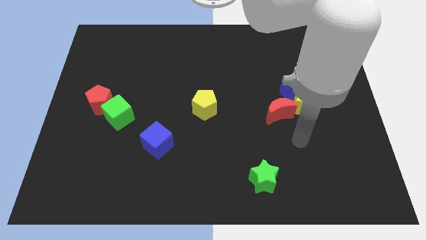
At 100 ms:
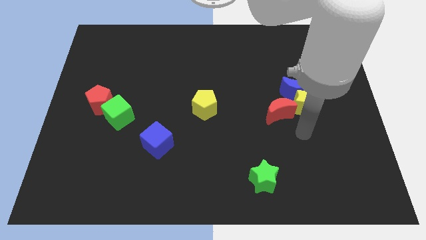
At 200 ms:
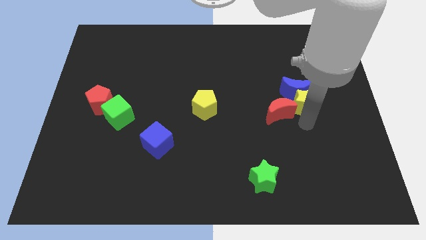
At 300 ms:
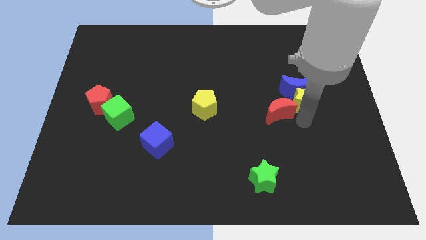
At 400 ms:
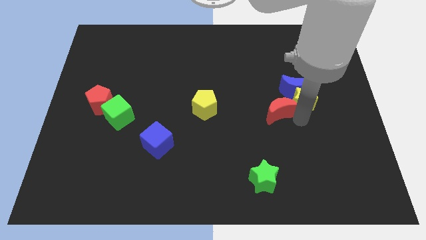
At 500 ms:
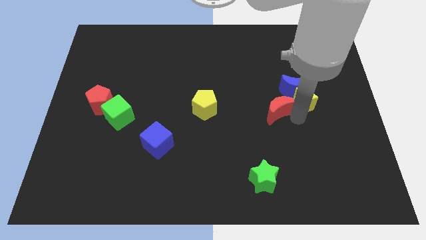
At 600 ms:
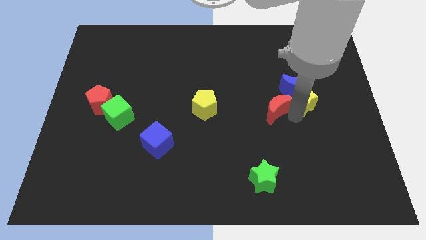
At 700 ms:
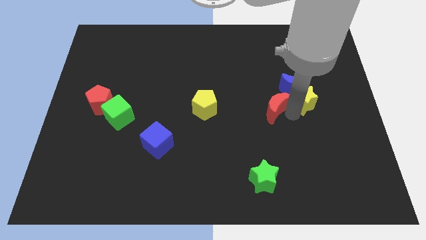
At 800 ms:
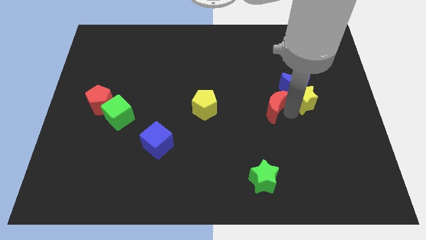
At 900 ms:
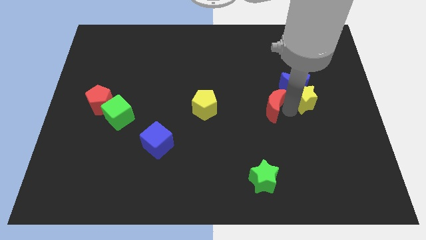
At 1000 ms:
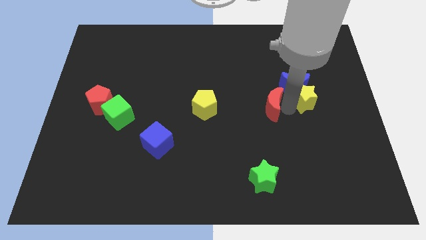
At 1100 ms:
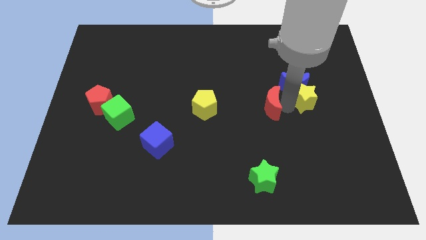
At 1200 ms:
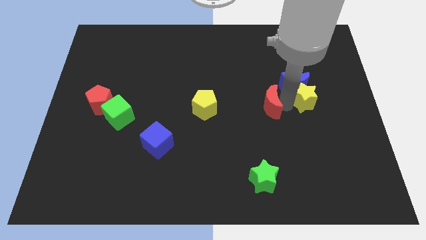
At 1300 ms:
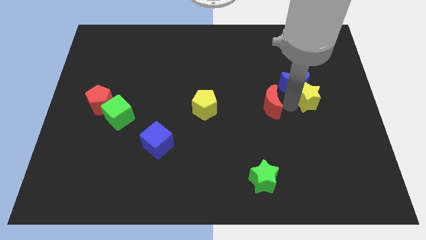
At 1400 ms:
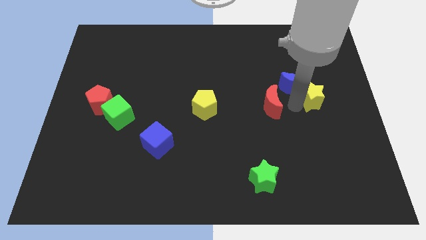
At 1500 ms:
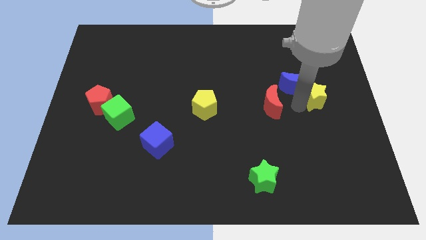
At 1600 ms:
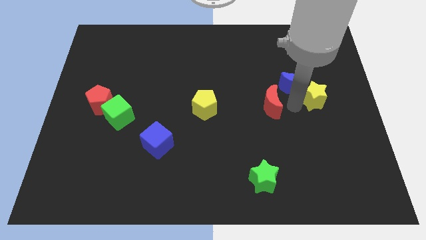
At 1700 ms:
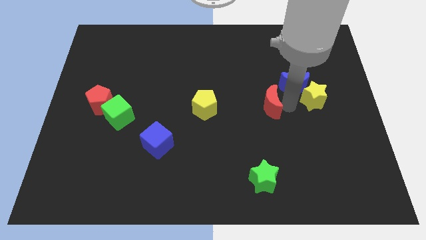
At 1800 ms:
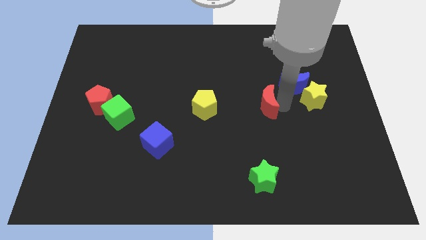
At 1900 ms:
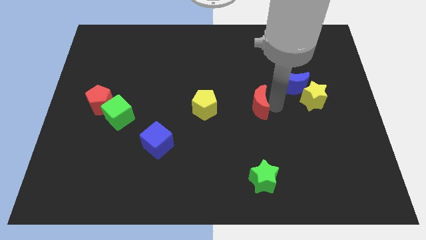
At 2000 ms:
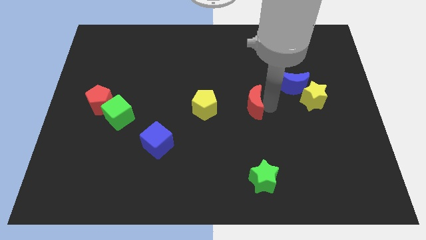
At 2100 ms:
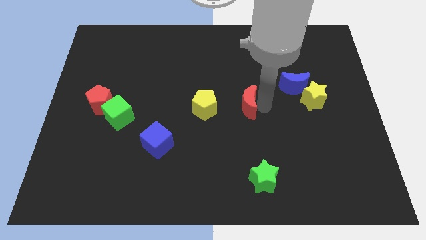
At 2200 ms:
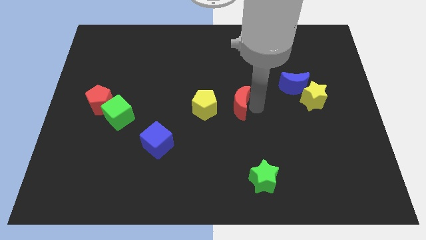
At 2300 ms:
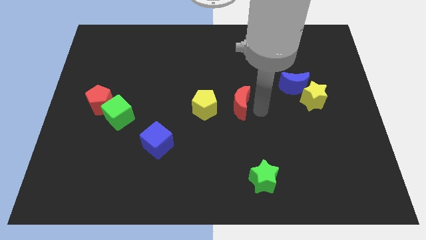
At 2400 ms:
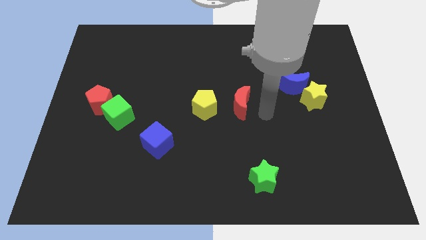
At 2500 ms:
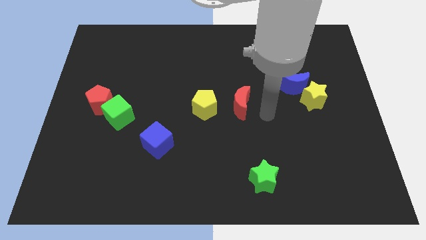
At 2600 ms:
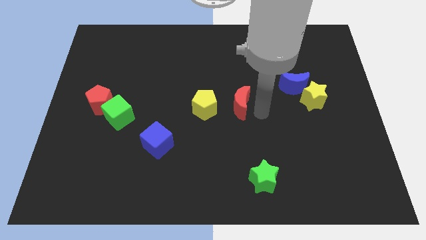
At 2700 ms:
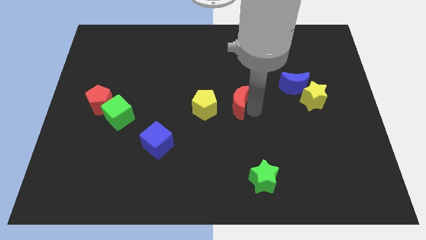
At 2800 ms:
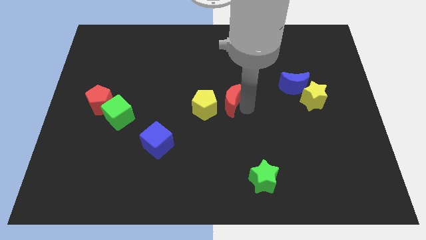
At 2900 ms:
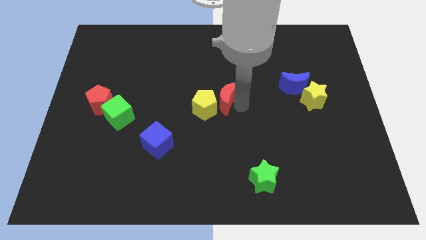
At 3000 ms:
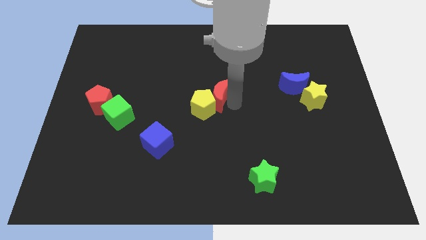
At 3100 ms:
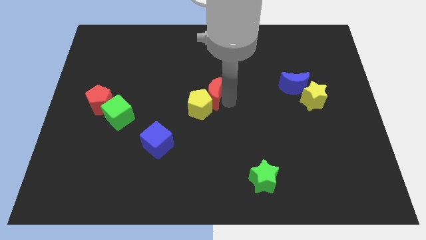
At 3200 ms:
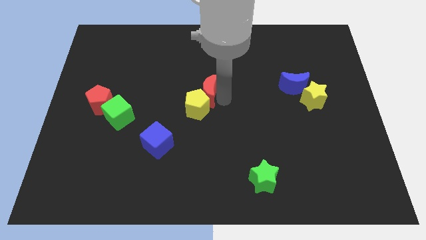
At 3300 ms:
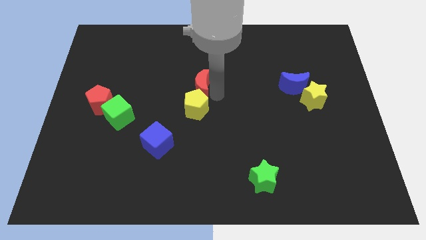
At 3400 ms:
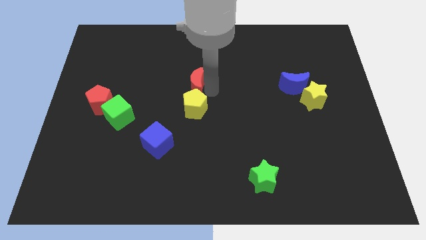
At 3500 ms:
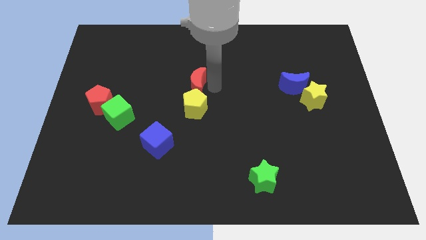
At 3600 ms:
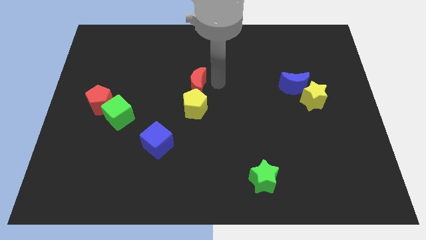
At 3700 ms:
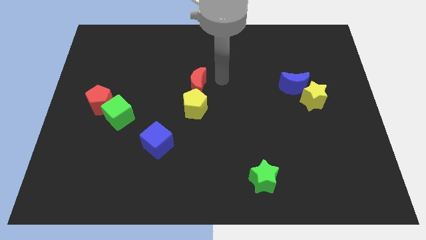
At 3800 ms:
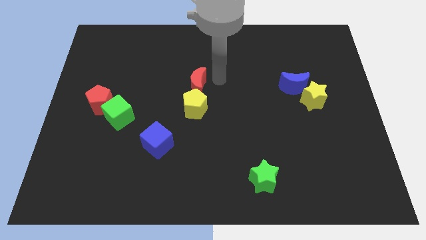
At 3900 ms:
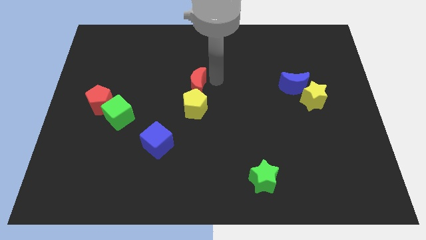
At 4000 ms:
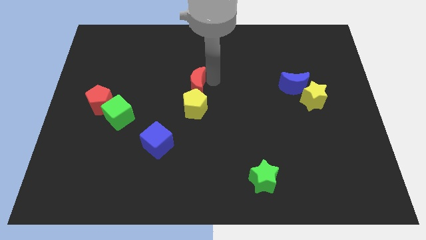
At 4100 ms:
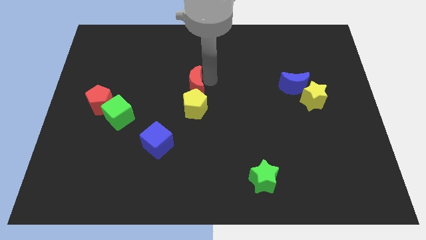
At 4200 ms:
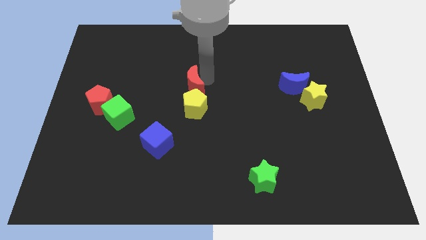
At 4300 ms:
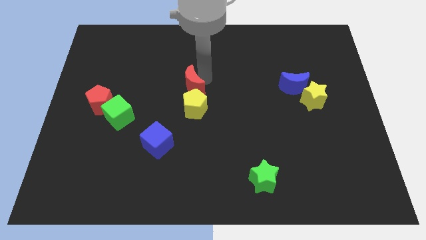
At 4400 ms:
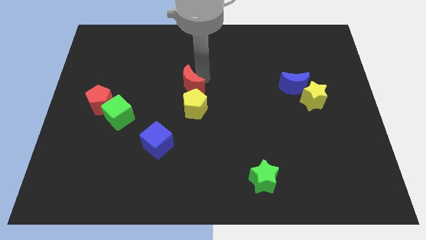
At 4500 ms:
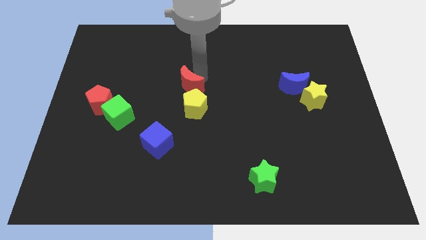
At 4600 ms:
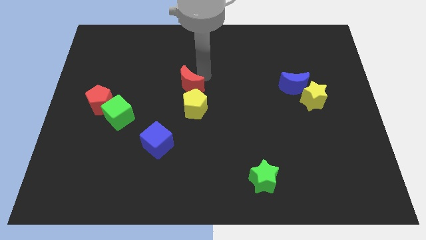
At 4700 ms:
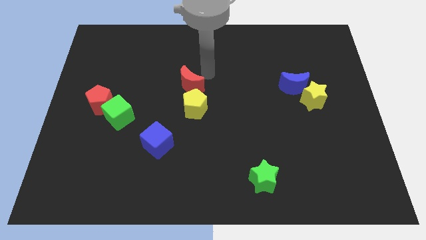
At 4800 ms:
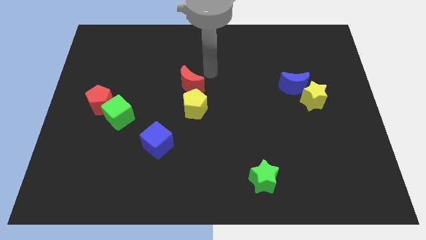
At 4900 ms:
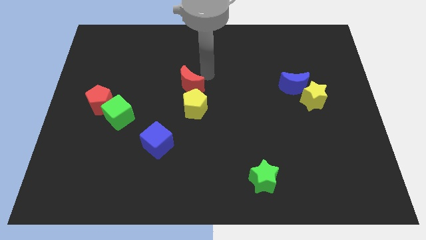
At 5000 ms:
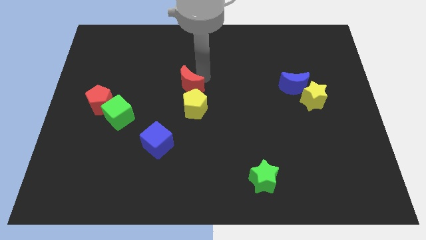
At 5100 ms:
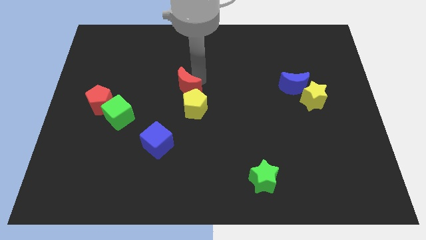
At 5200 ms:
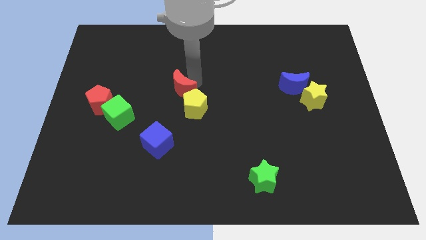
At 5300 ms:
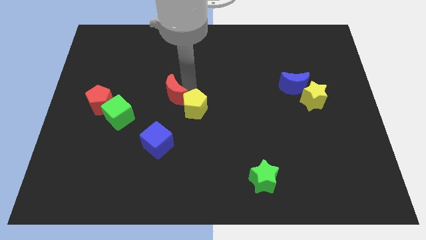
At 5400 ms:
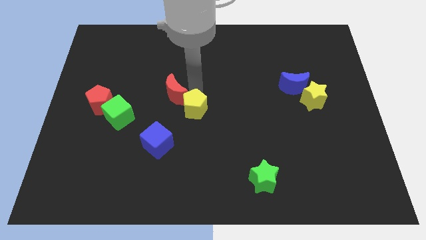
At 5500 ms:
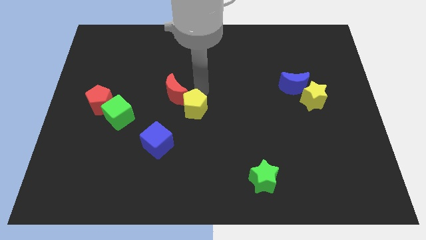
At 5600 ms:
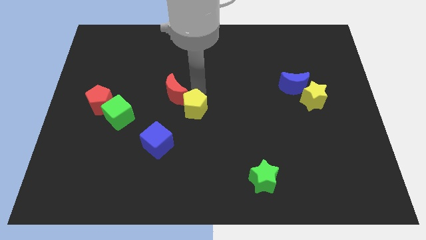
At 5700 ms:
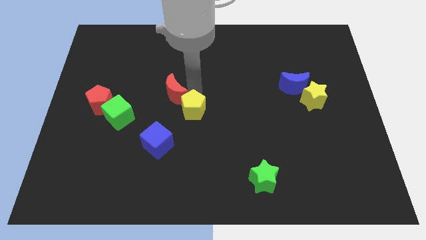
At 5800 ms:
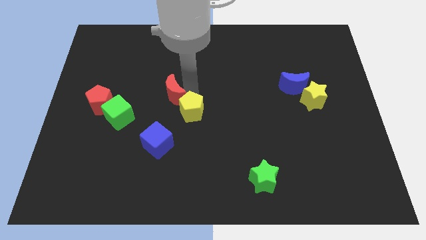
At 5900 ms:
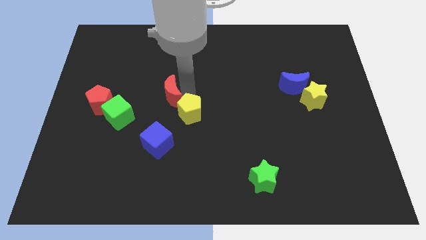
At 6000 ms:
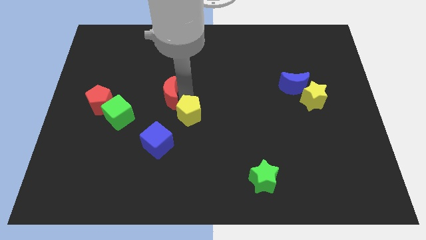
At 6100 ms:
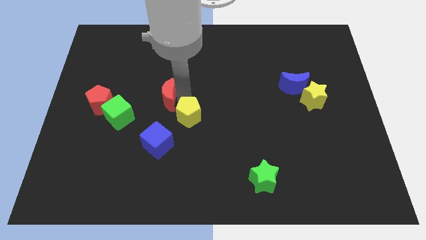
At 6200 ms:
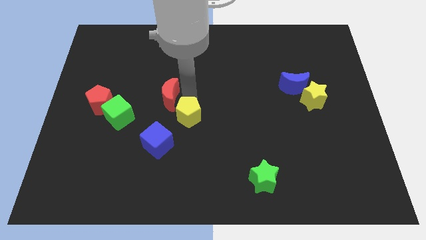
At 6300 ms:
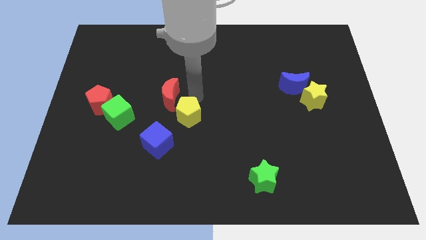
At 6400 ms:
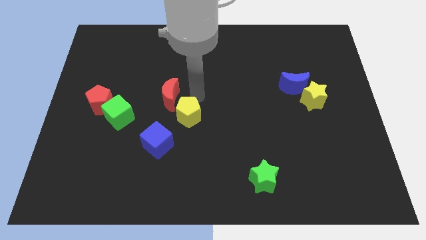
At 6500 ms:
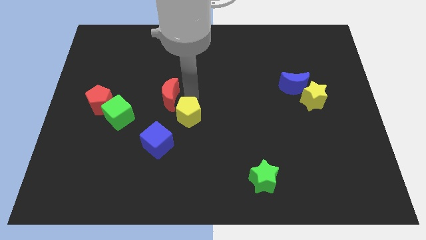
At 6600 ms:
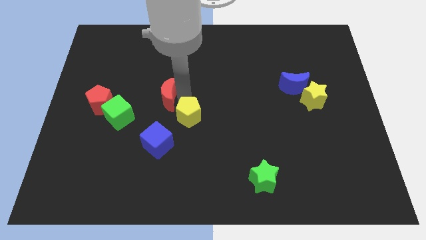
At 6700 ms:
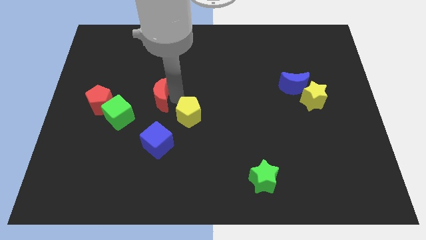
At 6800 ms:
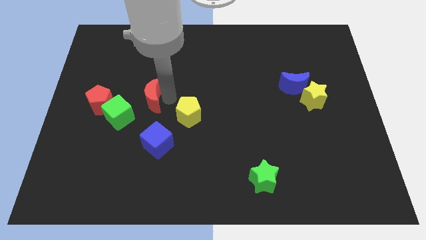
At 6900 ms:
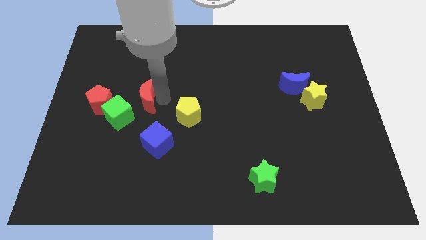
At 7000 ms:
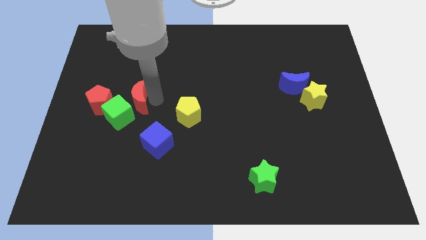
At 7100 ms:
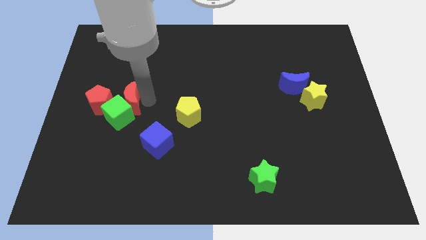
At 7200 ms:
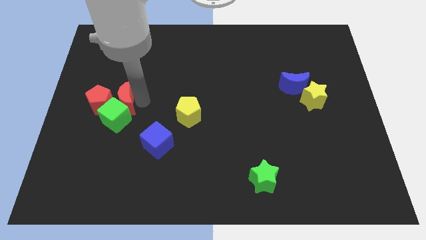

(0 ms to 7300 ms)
put the red moon next to the red pentagon
